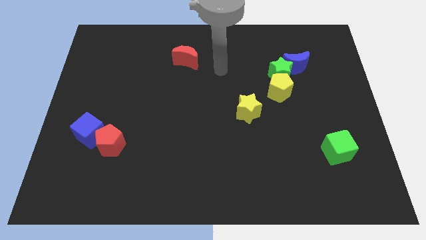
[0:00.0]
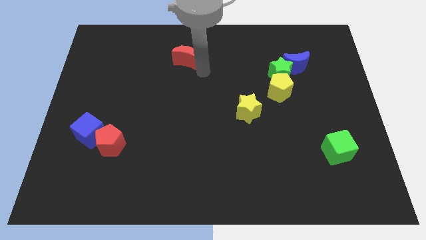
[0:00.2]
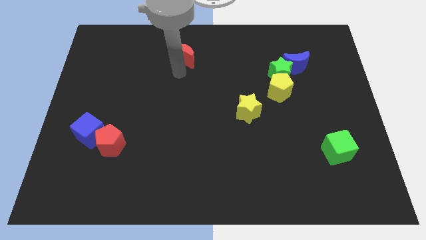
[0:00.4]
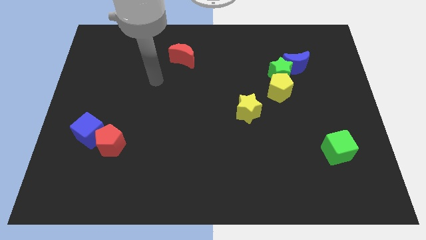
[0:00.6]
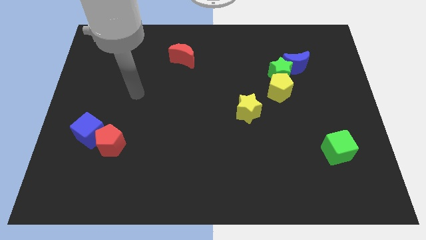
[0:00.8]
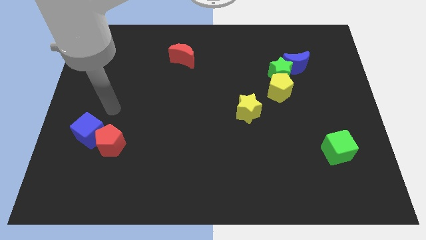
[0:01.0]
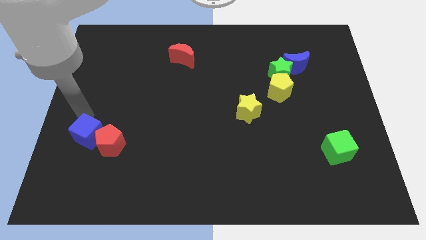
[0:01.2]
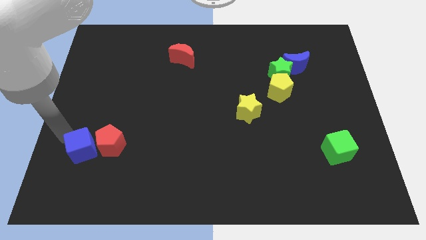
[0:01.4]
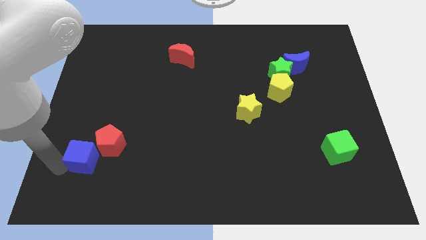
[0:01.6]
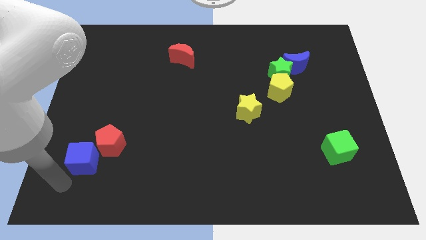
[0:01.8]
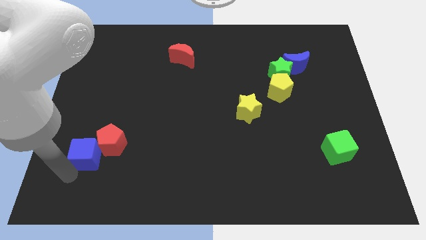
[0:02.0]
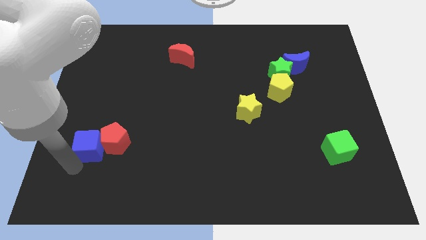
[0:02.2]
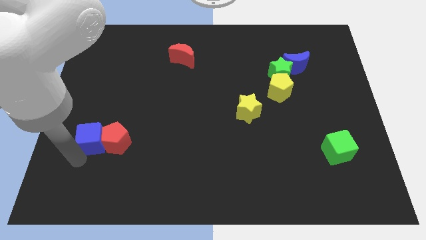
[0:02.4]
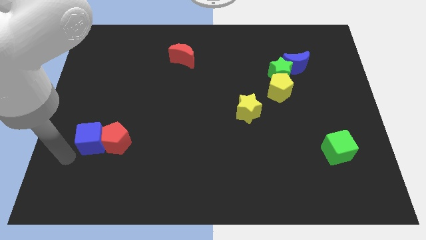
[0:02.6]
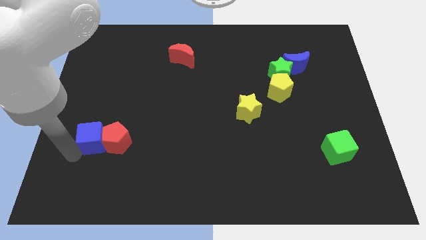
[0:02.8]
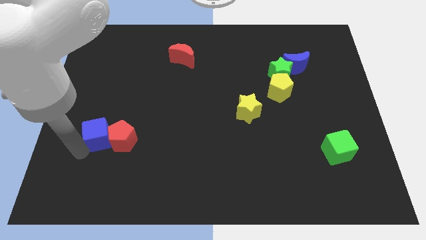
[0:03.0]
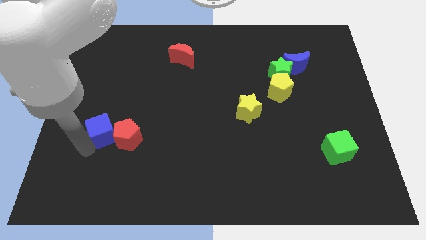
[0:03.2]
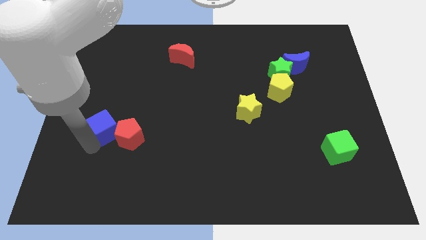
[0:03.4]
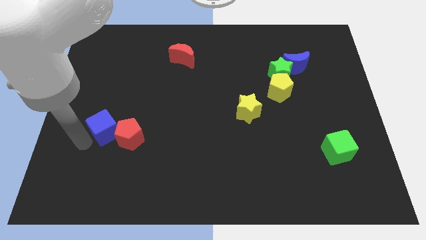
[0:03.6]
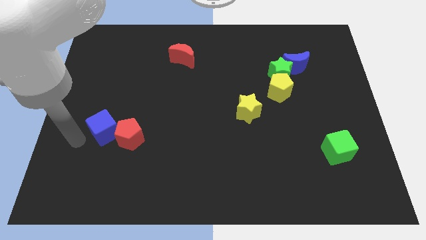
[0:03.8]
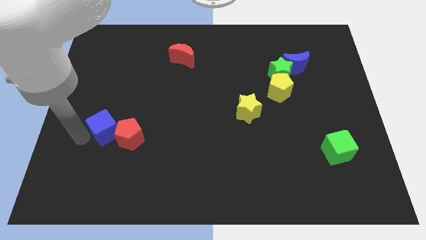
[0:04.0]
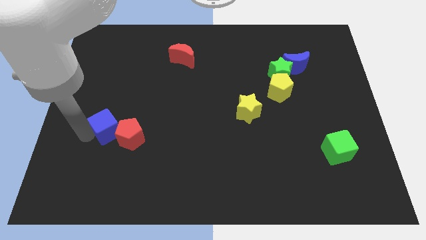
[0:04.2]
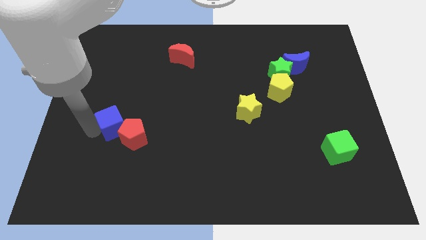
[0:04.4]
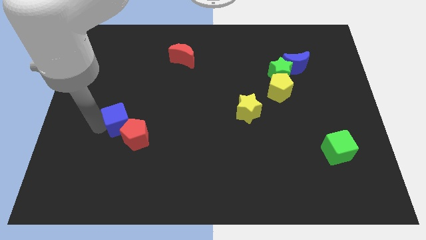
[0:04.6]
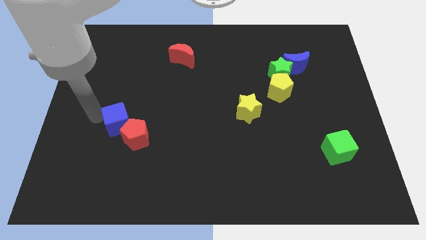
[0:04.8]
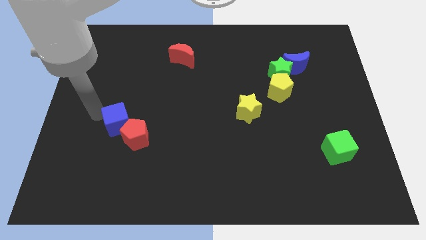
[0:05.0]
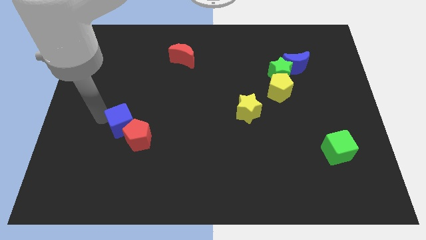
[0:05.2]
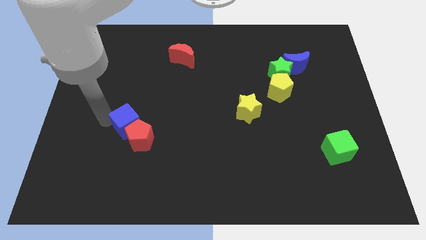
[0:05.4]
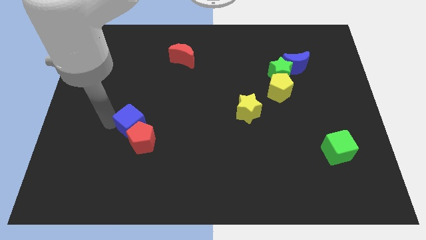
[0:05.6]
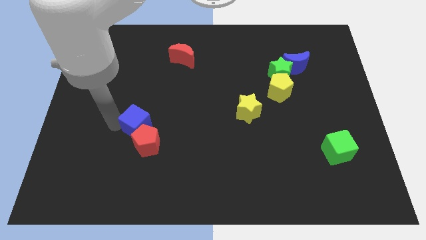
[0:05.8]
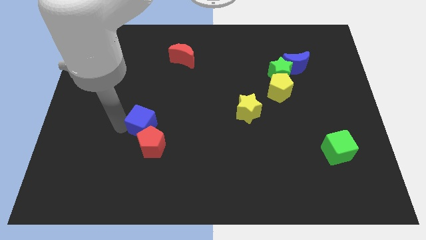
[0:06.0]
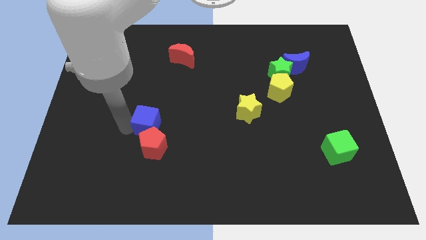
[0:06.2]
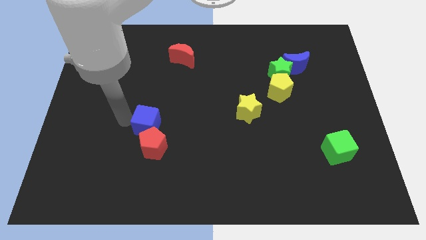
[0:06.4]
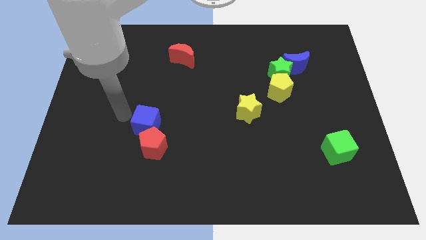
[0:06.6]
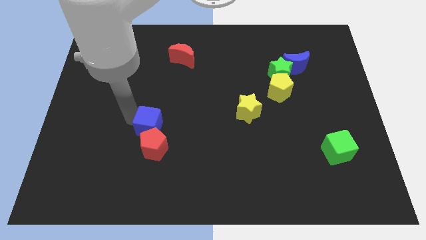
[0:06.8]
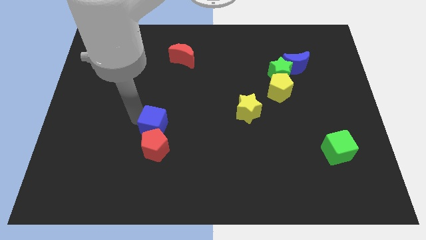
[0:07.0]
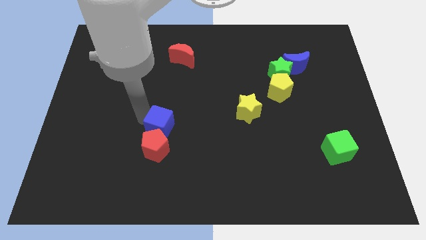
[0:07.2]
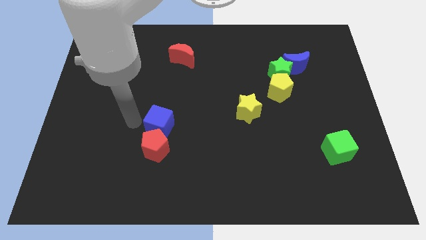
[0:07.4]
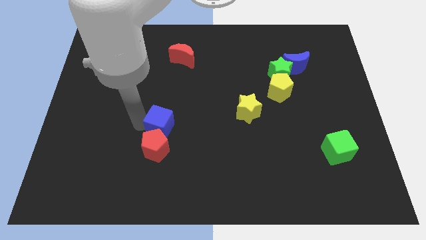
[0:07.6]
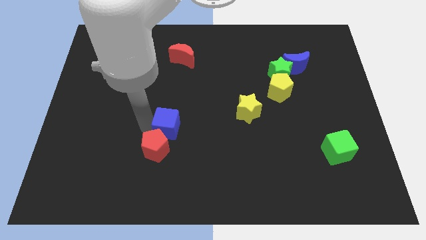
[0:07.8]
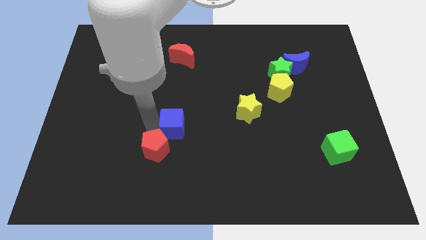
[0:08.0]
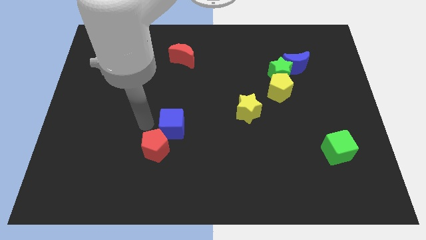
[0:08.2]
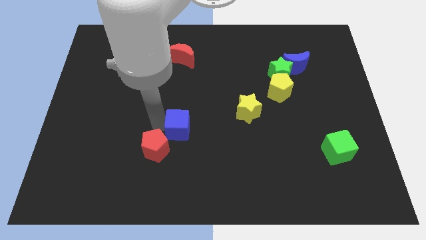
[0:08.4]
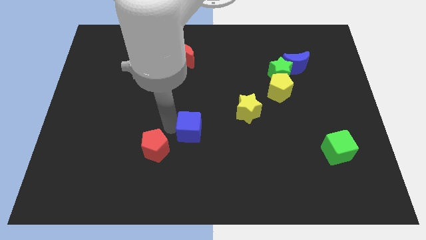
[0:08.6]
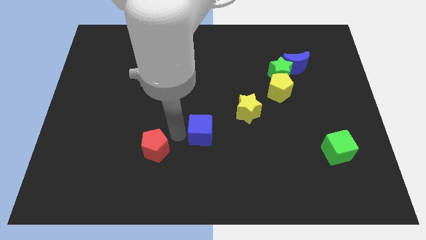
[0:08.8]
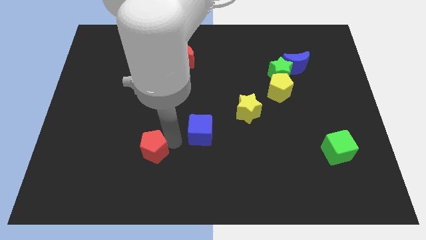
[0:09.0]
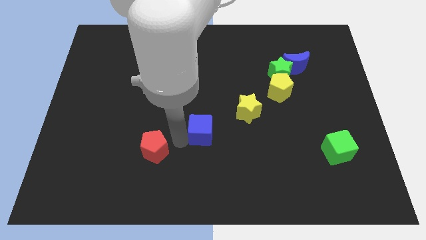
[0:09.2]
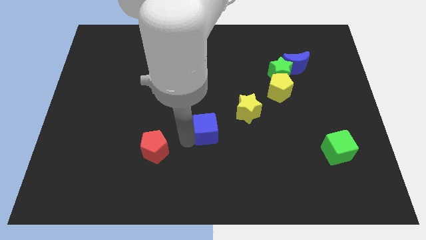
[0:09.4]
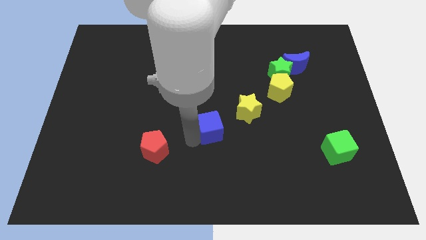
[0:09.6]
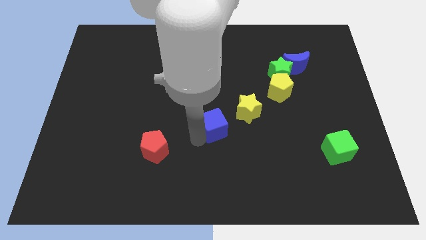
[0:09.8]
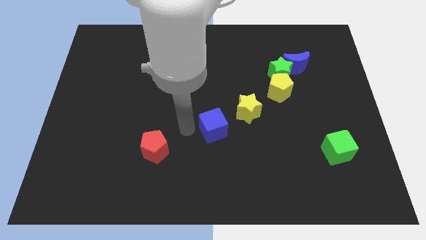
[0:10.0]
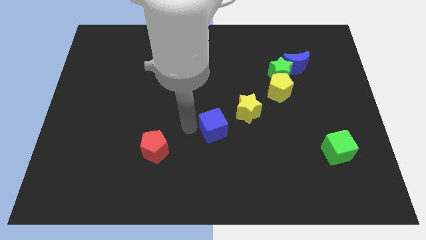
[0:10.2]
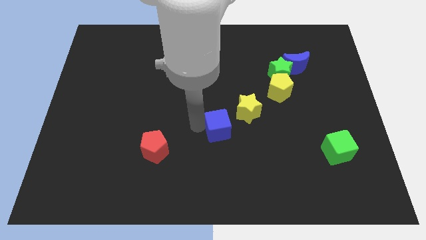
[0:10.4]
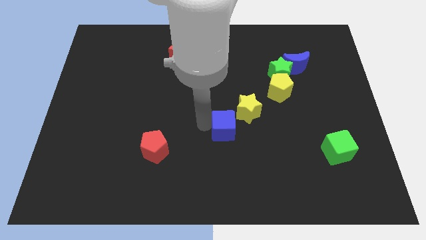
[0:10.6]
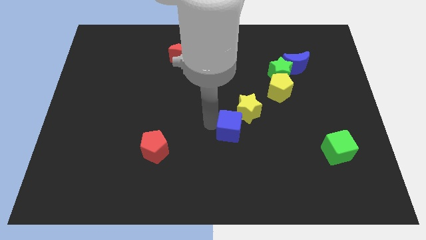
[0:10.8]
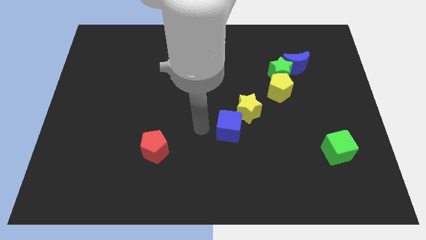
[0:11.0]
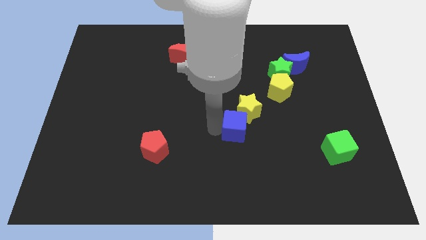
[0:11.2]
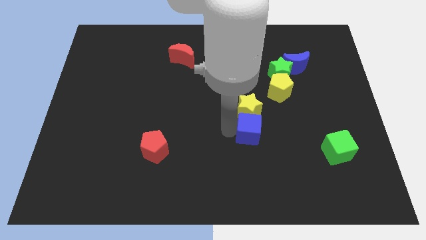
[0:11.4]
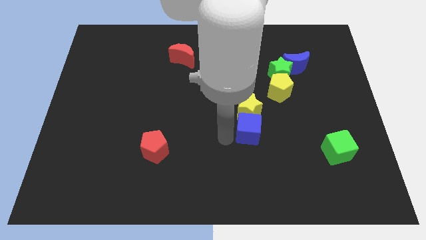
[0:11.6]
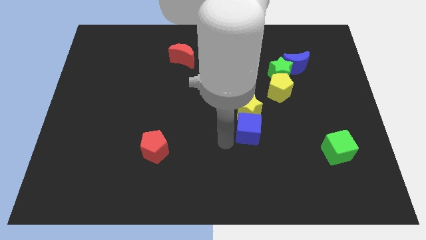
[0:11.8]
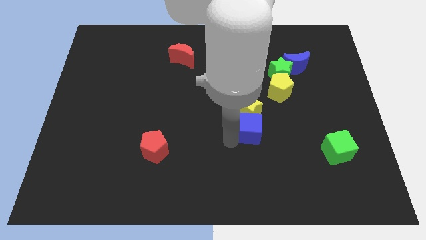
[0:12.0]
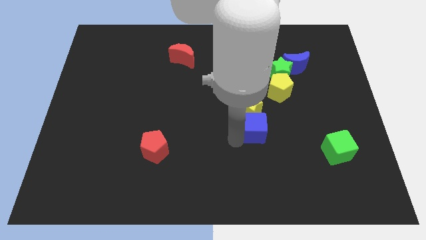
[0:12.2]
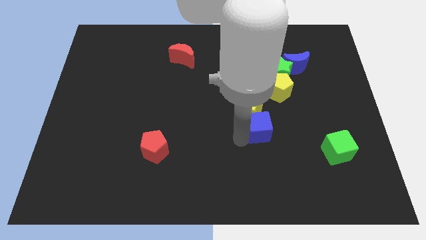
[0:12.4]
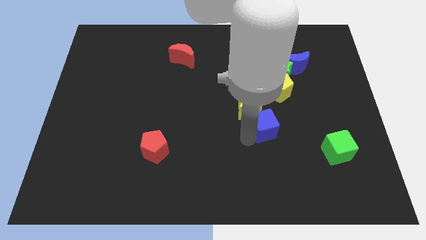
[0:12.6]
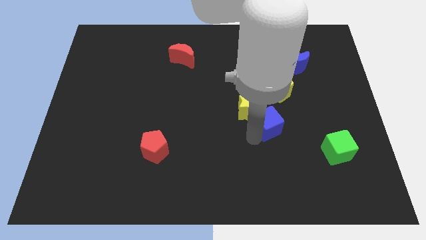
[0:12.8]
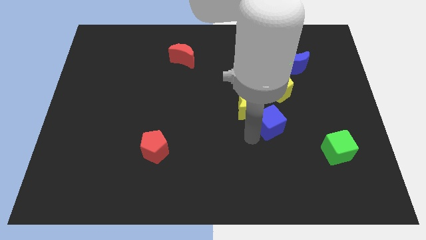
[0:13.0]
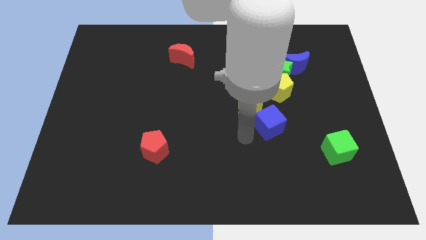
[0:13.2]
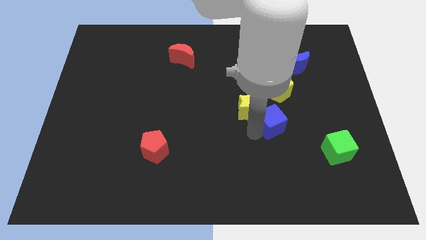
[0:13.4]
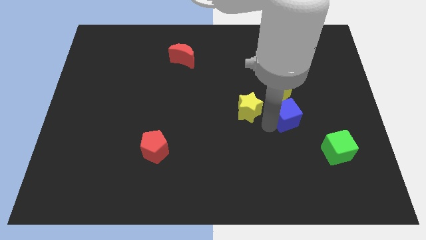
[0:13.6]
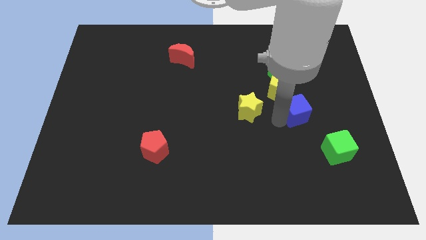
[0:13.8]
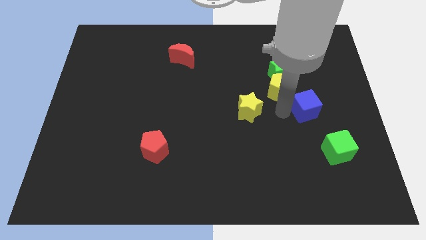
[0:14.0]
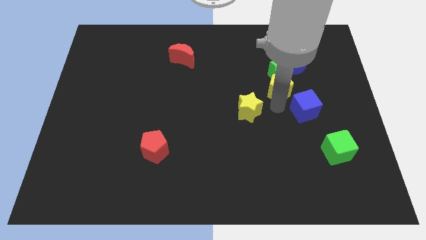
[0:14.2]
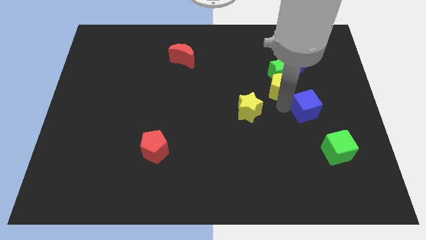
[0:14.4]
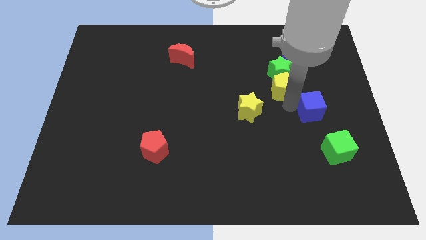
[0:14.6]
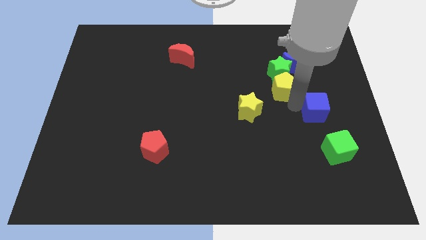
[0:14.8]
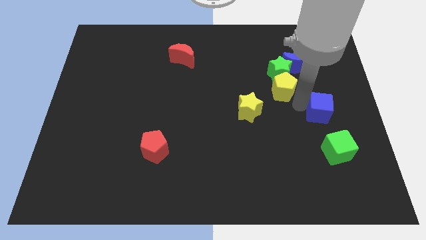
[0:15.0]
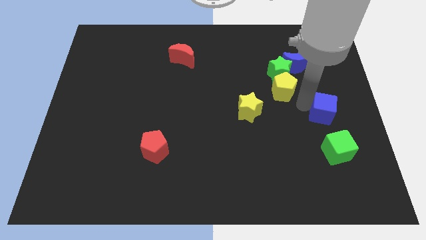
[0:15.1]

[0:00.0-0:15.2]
move the blue cube to the right side
